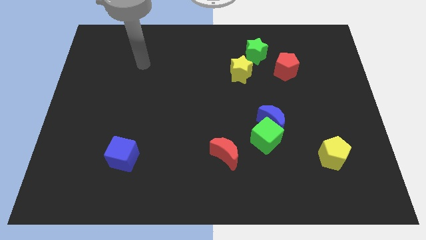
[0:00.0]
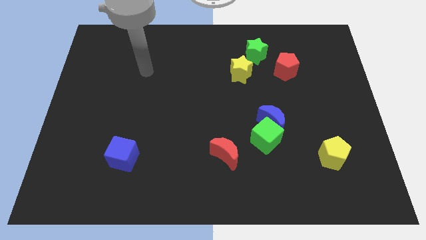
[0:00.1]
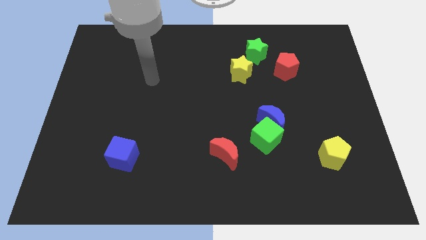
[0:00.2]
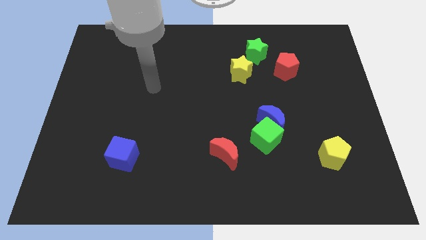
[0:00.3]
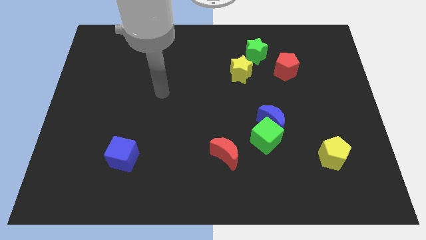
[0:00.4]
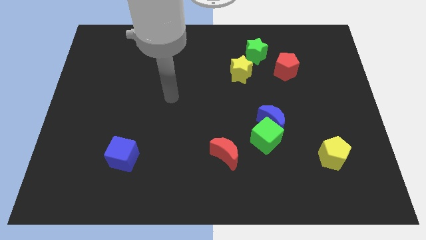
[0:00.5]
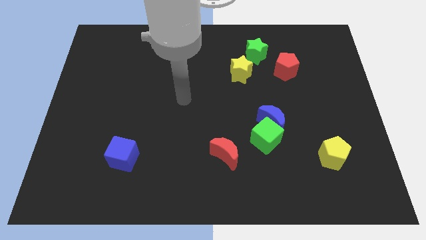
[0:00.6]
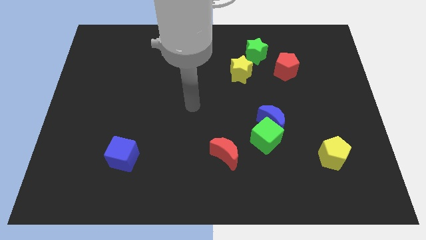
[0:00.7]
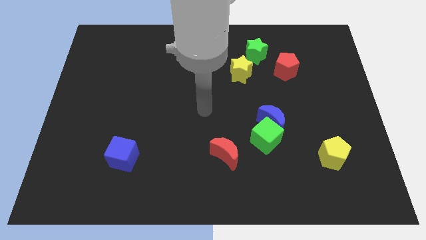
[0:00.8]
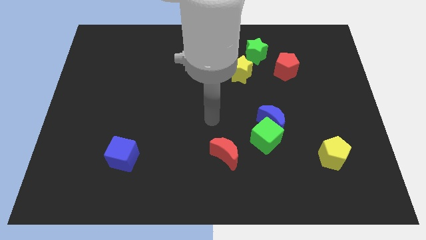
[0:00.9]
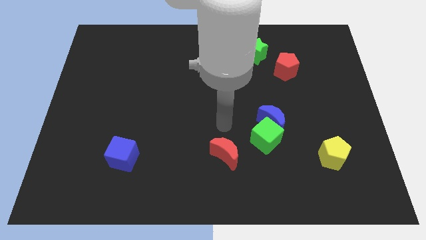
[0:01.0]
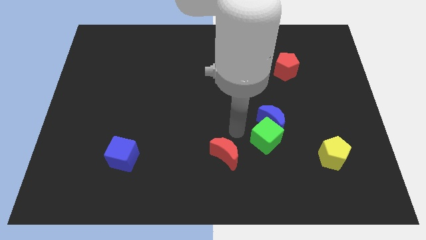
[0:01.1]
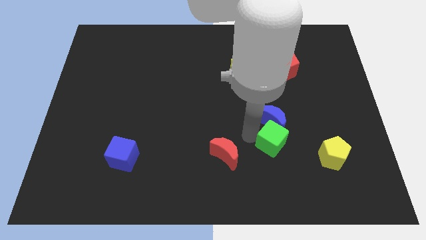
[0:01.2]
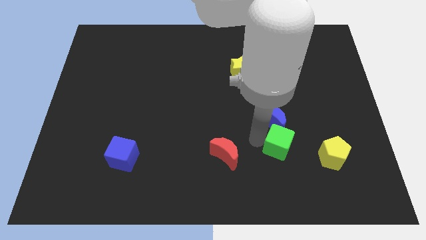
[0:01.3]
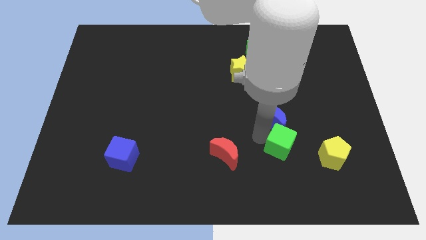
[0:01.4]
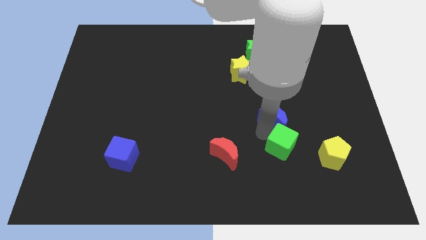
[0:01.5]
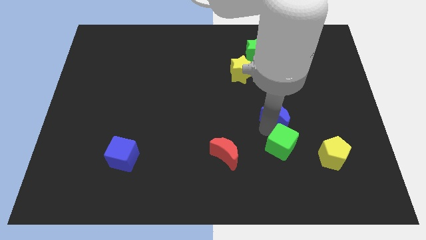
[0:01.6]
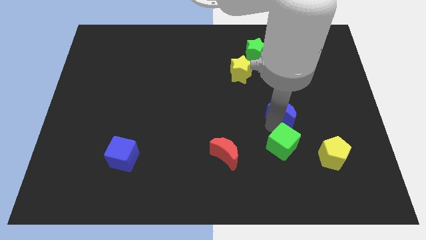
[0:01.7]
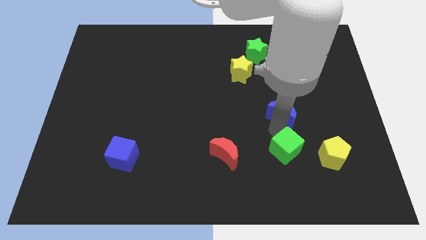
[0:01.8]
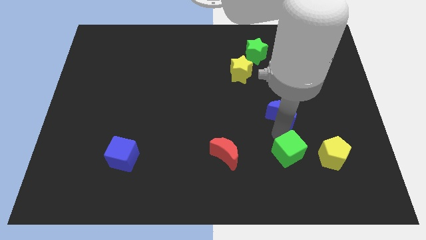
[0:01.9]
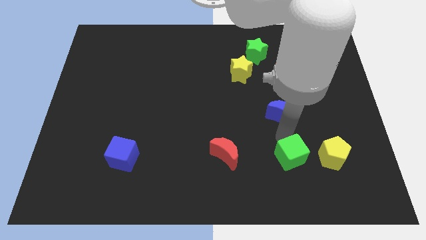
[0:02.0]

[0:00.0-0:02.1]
separate the blue moon from the green cube

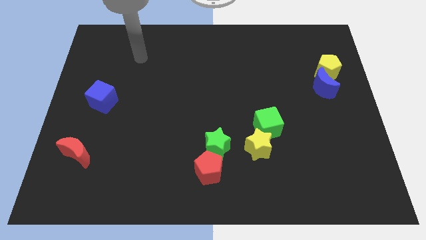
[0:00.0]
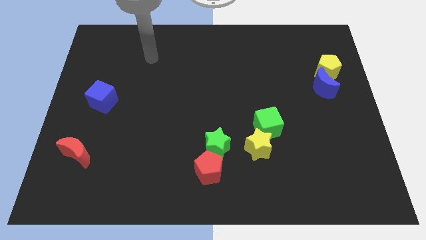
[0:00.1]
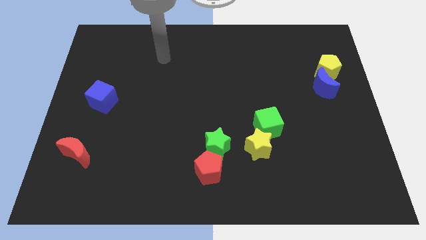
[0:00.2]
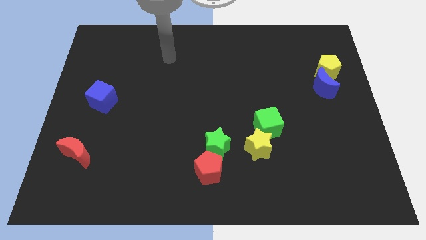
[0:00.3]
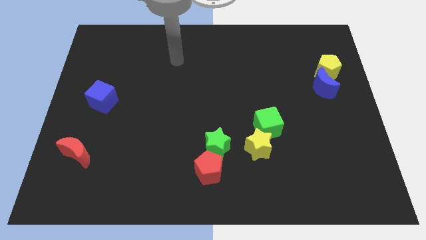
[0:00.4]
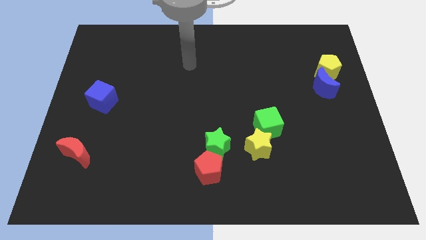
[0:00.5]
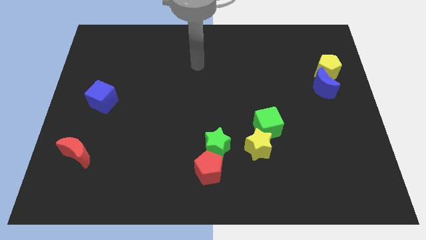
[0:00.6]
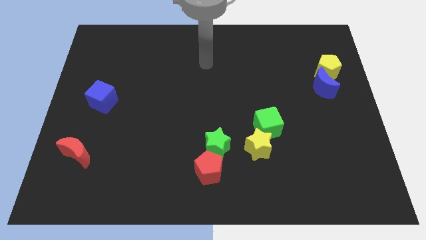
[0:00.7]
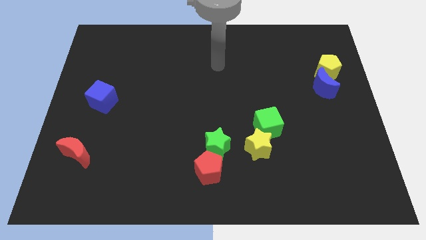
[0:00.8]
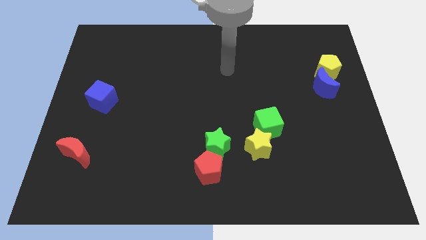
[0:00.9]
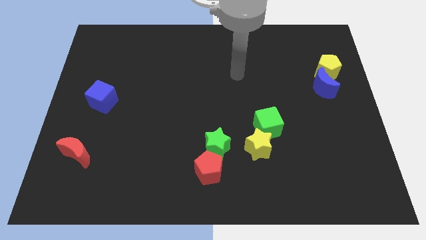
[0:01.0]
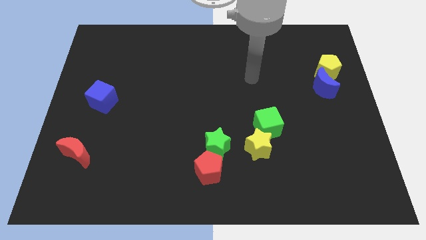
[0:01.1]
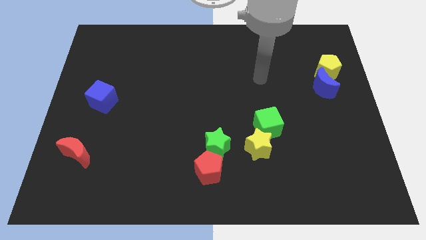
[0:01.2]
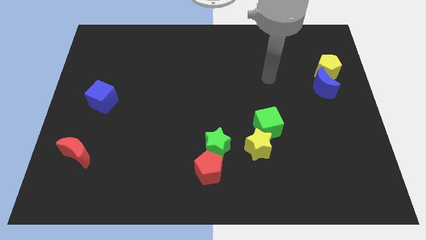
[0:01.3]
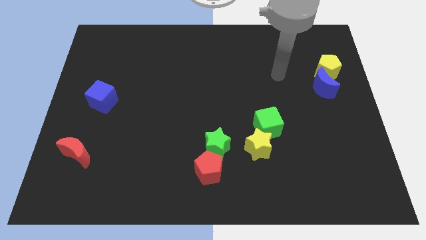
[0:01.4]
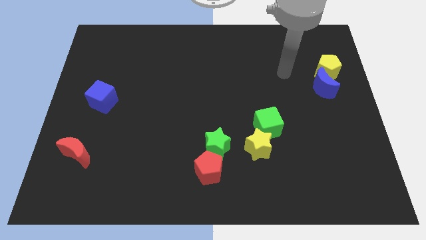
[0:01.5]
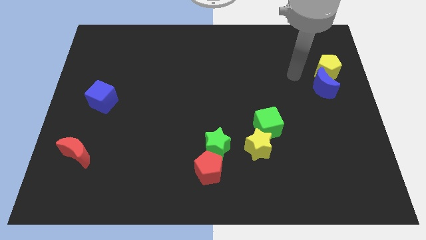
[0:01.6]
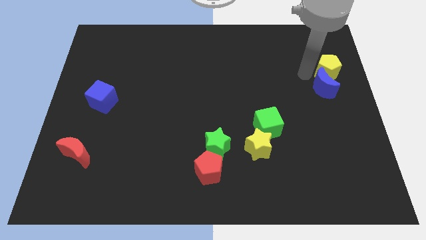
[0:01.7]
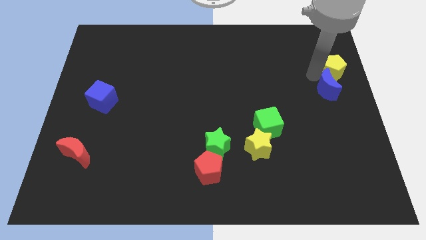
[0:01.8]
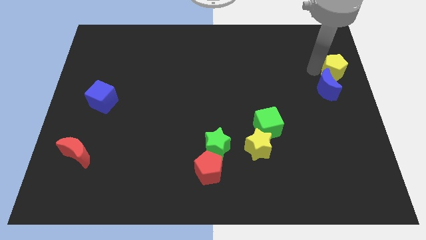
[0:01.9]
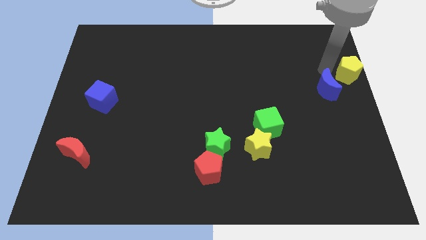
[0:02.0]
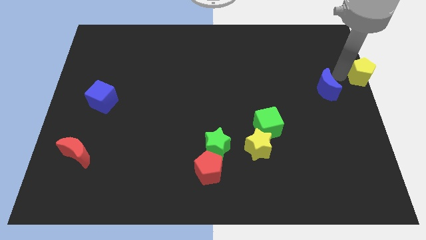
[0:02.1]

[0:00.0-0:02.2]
separate the blue moon from the yellow pentagon

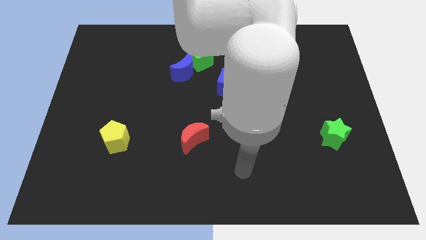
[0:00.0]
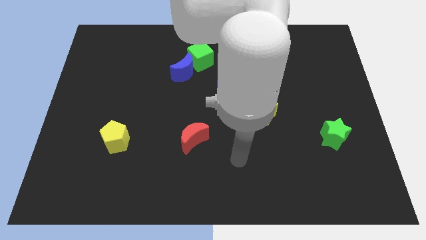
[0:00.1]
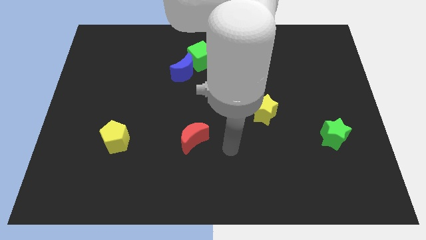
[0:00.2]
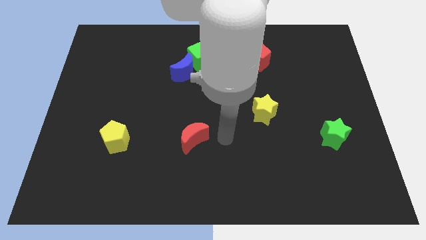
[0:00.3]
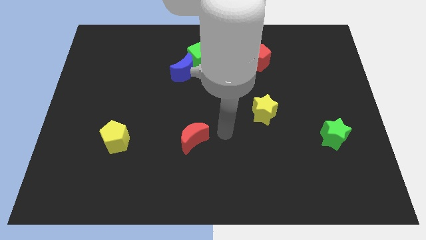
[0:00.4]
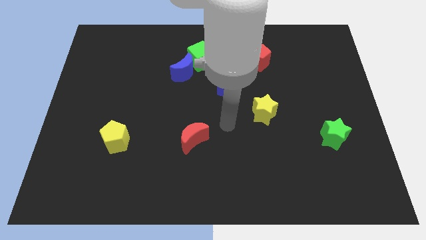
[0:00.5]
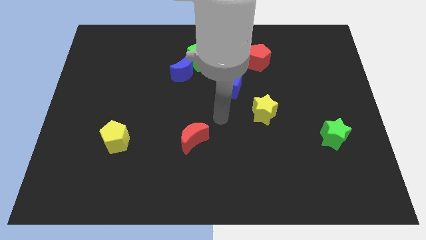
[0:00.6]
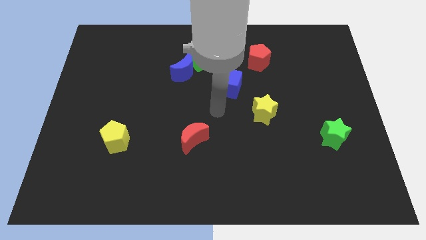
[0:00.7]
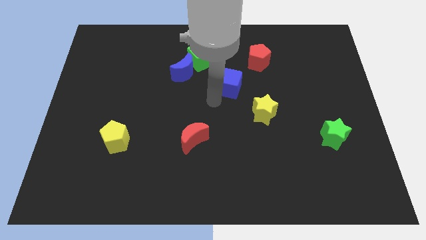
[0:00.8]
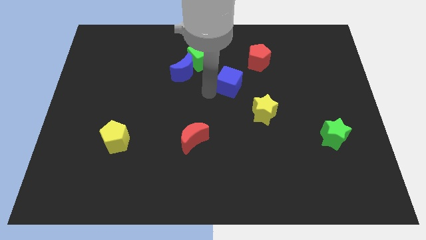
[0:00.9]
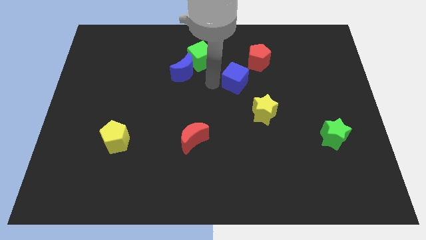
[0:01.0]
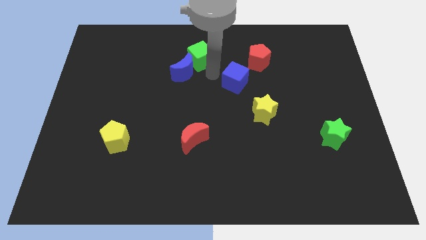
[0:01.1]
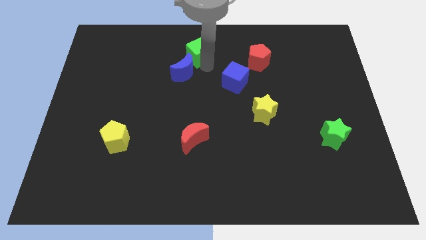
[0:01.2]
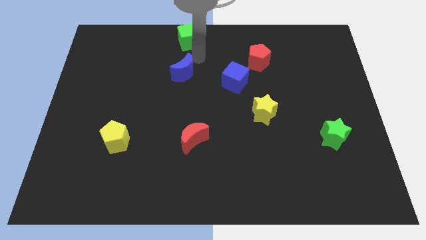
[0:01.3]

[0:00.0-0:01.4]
pull the blue moon apart from the green cube

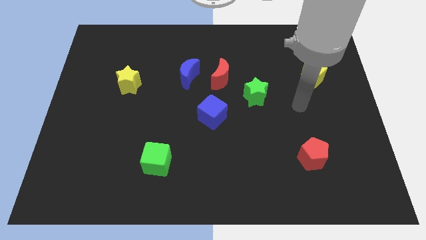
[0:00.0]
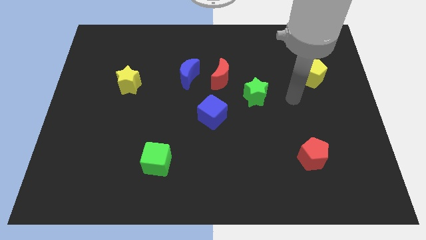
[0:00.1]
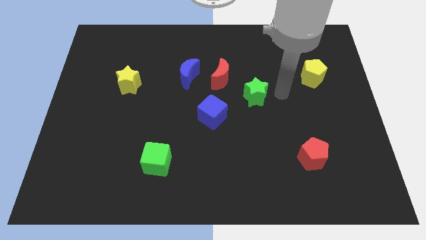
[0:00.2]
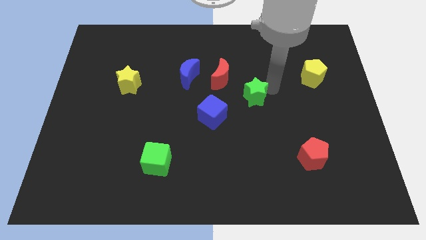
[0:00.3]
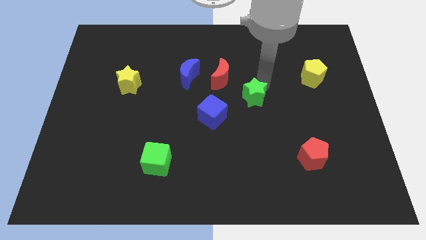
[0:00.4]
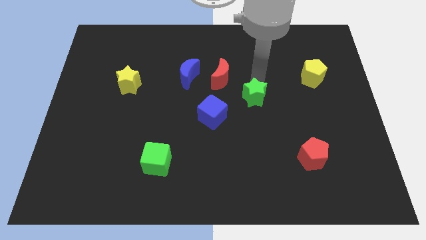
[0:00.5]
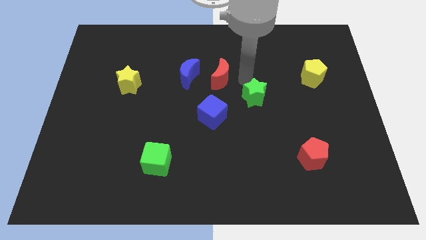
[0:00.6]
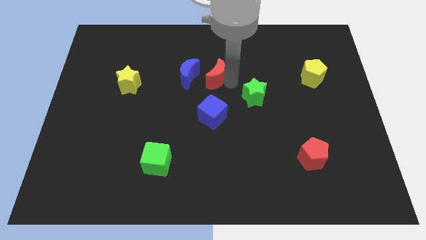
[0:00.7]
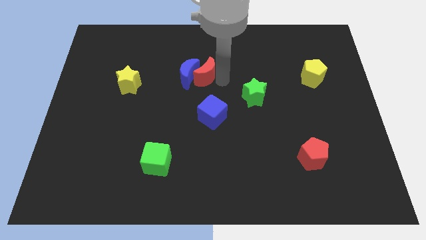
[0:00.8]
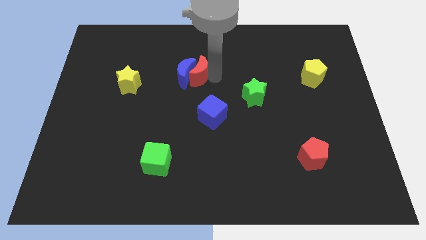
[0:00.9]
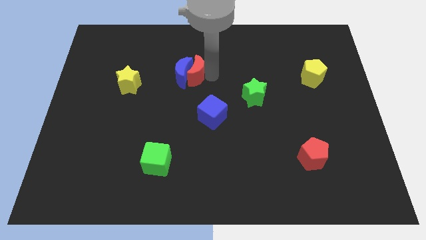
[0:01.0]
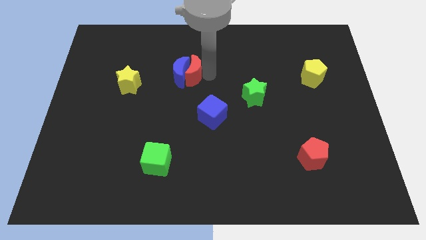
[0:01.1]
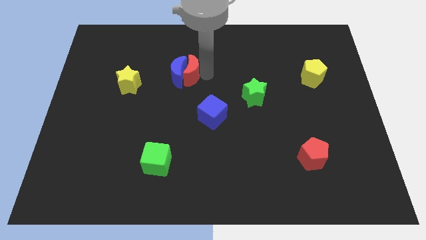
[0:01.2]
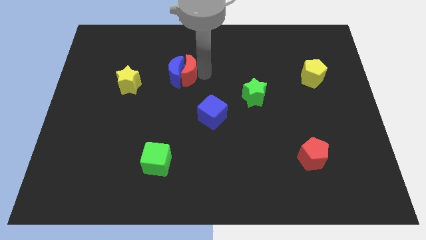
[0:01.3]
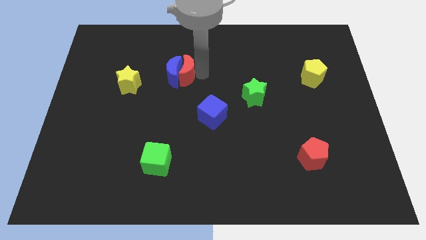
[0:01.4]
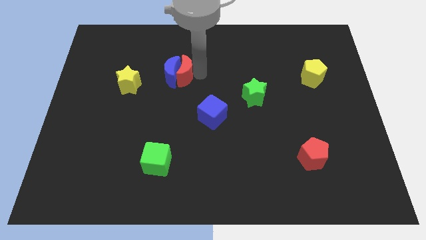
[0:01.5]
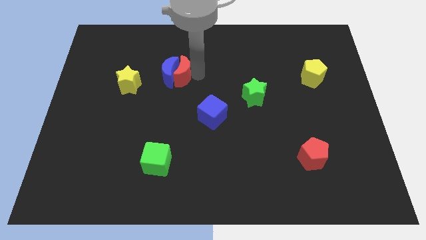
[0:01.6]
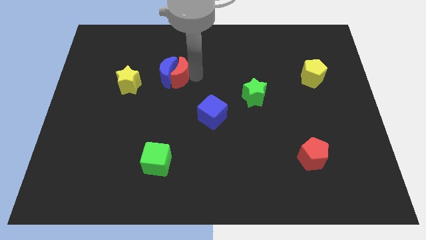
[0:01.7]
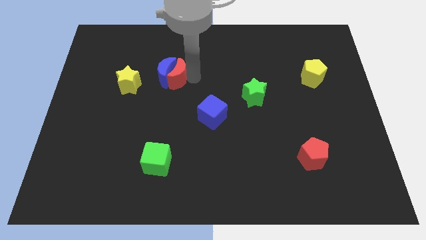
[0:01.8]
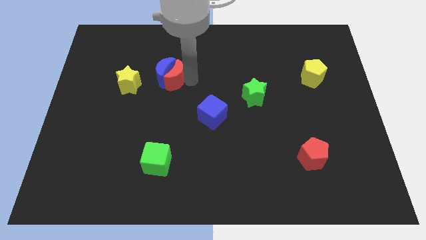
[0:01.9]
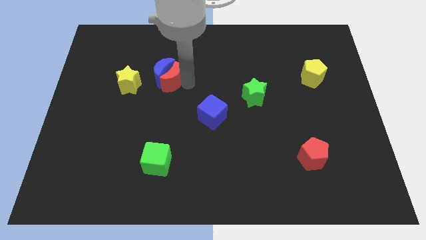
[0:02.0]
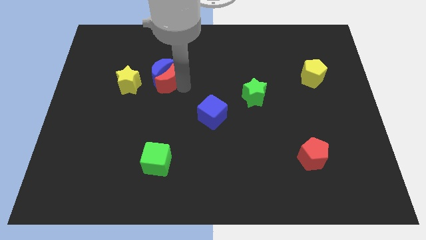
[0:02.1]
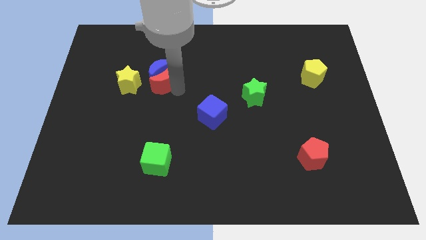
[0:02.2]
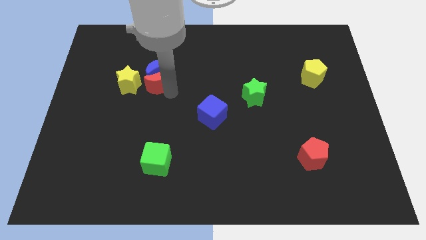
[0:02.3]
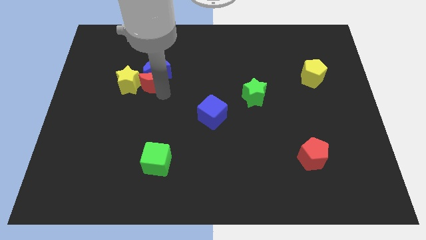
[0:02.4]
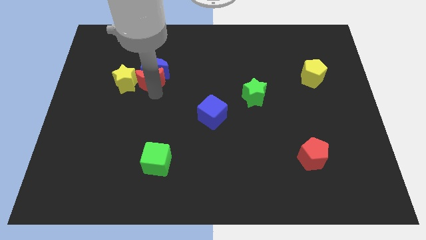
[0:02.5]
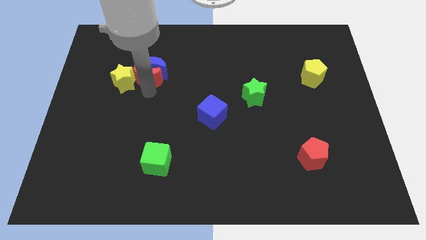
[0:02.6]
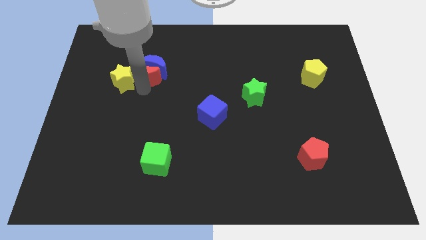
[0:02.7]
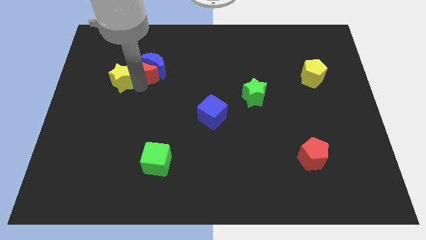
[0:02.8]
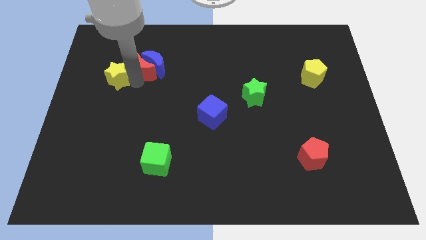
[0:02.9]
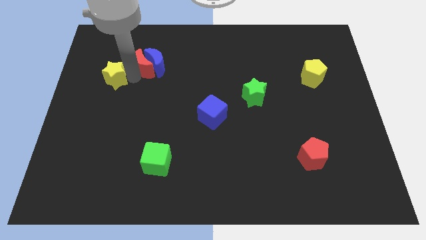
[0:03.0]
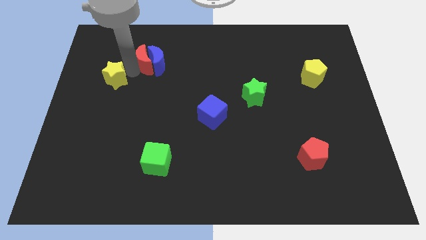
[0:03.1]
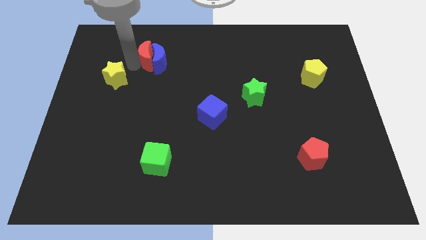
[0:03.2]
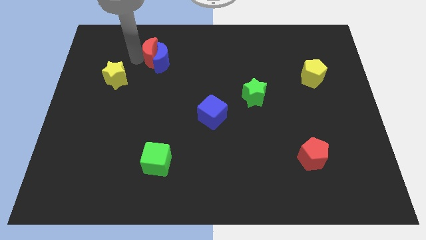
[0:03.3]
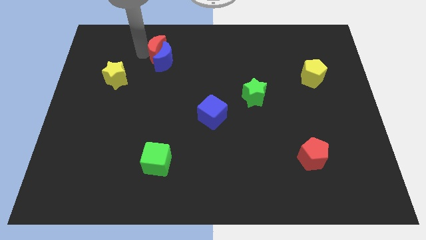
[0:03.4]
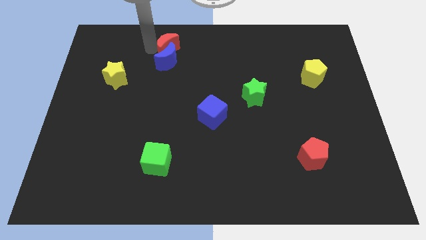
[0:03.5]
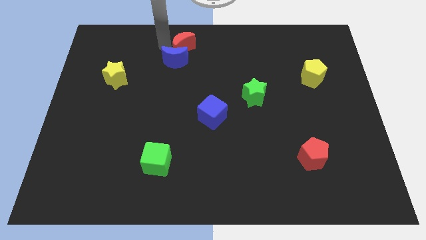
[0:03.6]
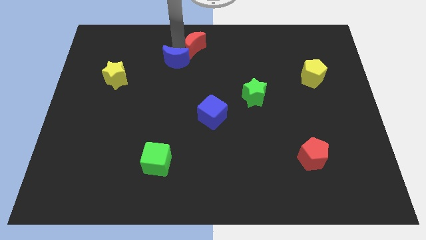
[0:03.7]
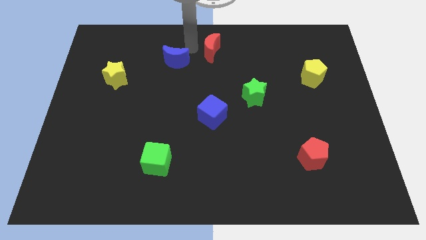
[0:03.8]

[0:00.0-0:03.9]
pull the blue moon apart from the red moon
